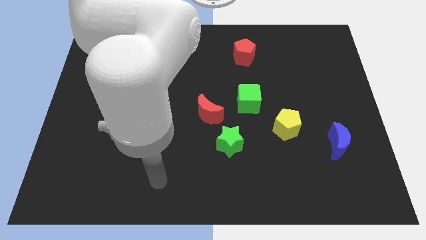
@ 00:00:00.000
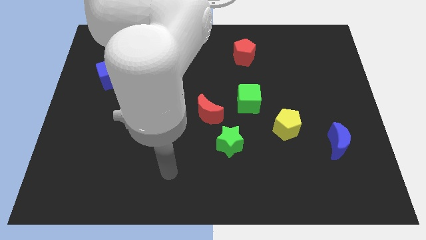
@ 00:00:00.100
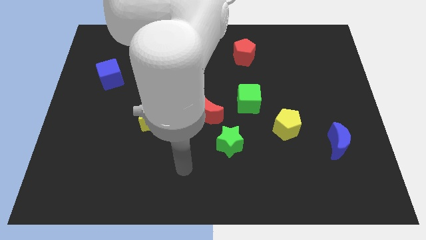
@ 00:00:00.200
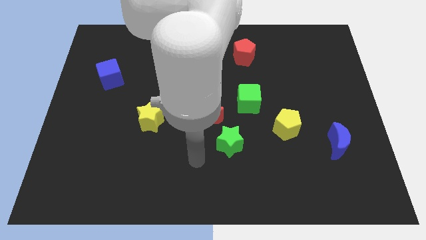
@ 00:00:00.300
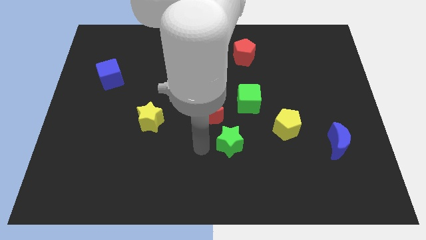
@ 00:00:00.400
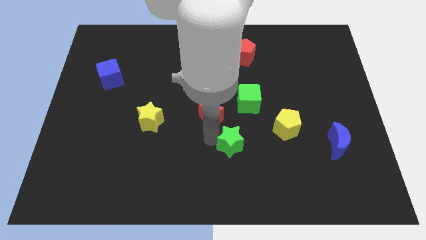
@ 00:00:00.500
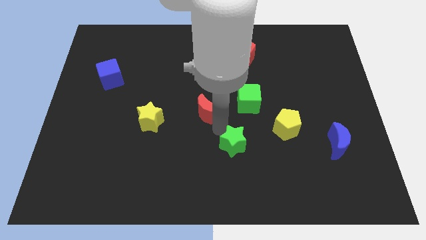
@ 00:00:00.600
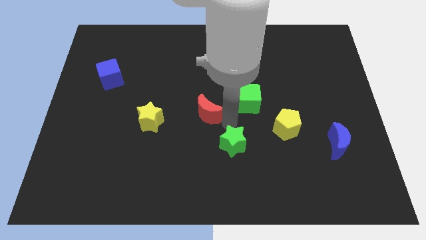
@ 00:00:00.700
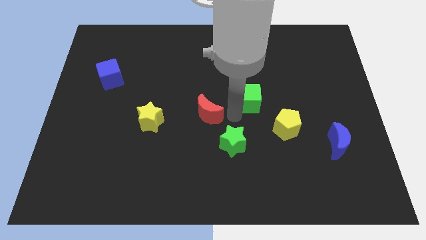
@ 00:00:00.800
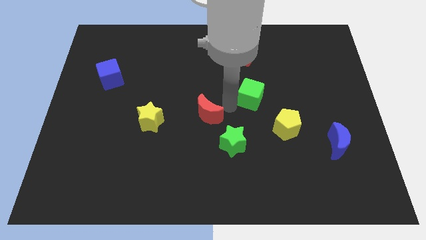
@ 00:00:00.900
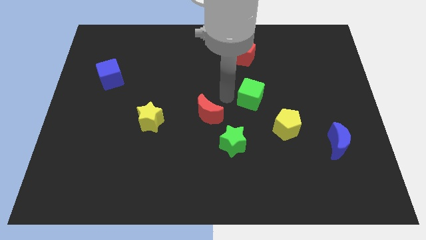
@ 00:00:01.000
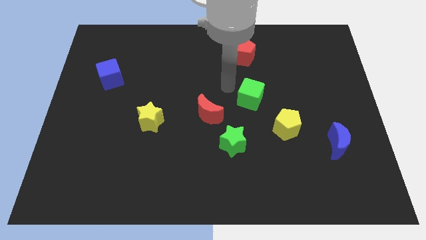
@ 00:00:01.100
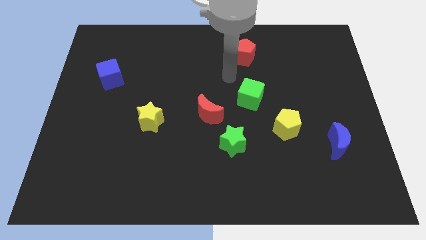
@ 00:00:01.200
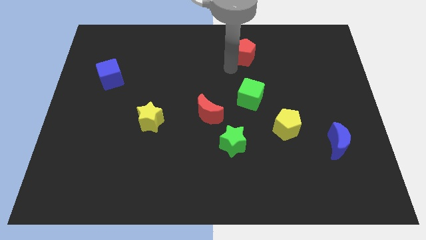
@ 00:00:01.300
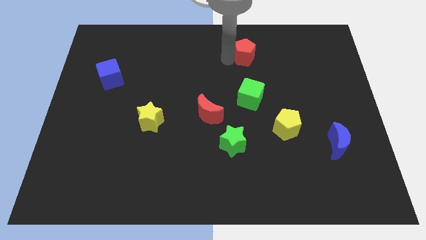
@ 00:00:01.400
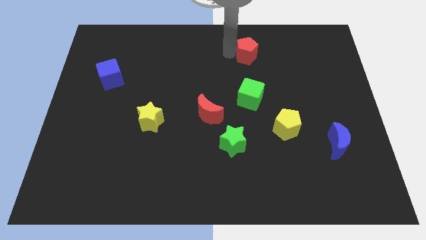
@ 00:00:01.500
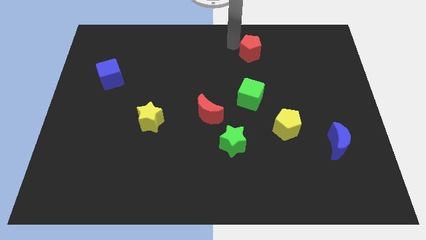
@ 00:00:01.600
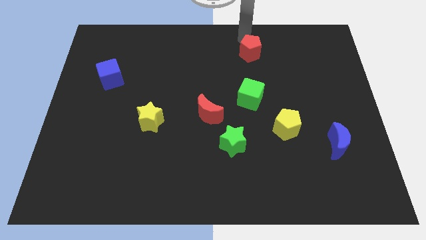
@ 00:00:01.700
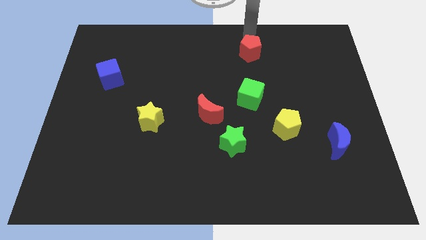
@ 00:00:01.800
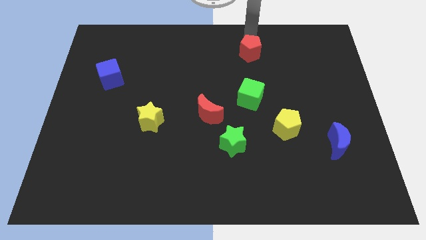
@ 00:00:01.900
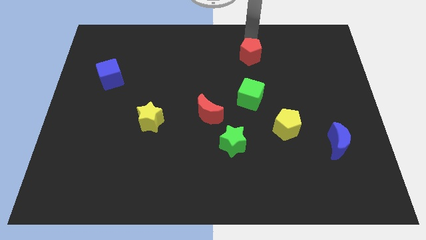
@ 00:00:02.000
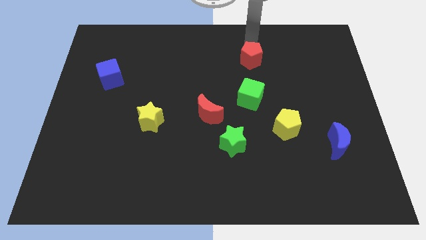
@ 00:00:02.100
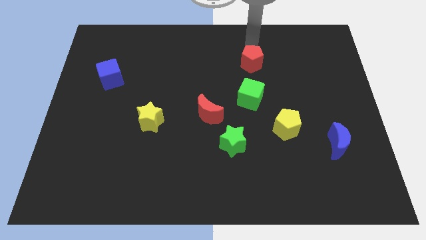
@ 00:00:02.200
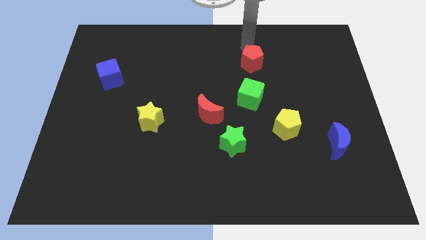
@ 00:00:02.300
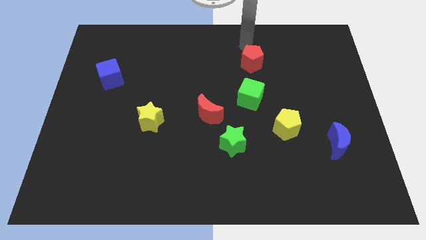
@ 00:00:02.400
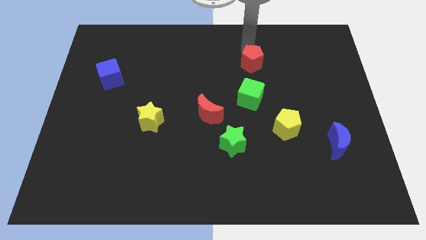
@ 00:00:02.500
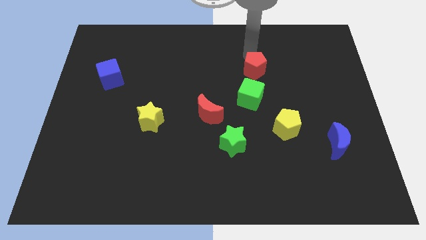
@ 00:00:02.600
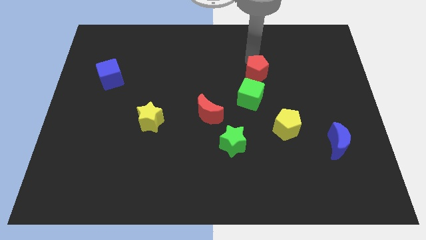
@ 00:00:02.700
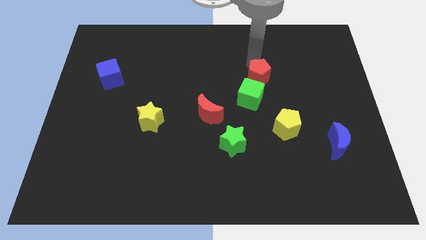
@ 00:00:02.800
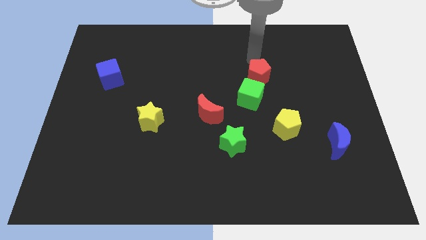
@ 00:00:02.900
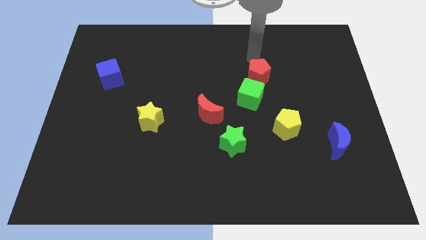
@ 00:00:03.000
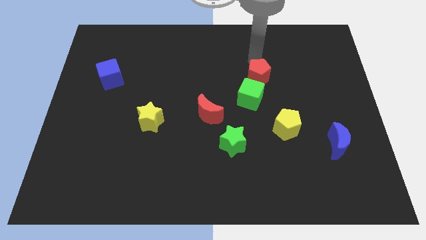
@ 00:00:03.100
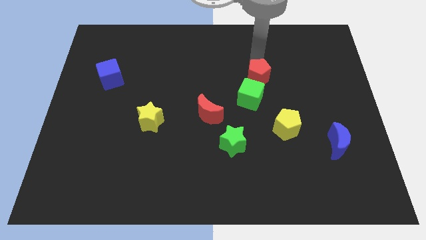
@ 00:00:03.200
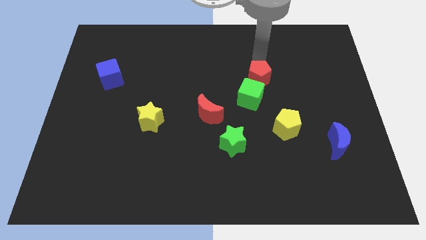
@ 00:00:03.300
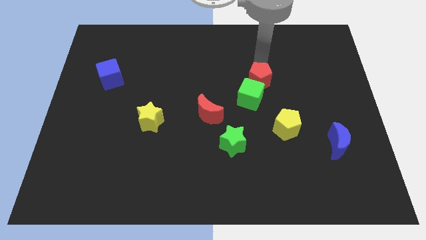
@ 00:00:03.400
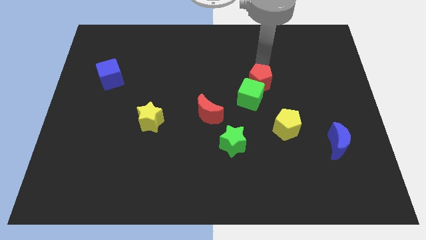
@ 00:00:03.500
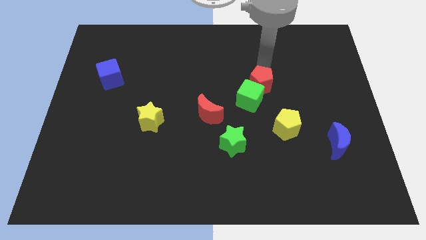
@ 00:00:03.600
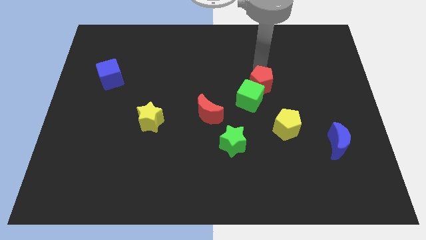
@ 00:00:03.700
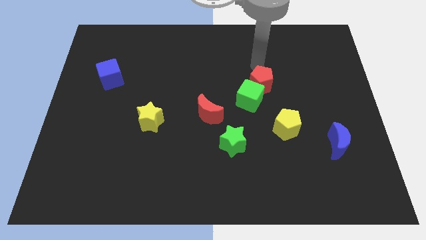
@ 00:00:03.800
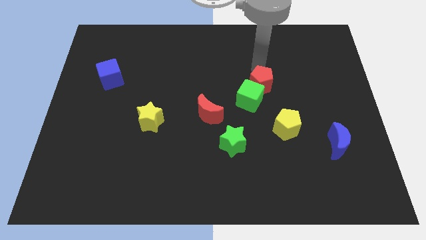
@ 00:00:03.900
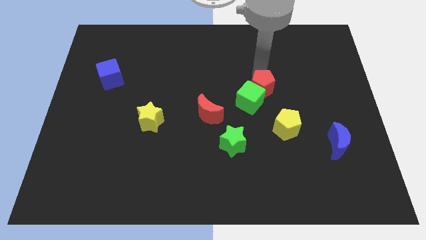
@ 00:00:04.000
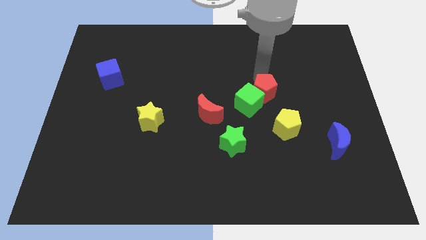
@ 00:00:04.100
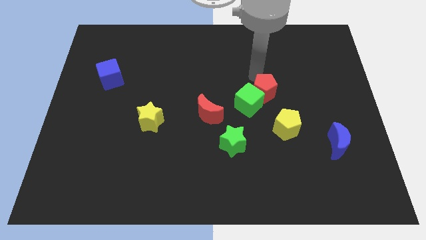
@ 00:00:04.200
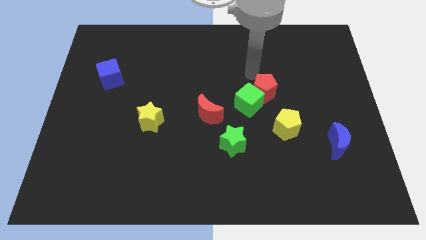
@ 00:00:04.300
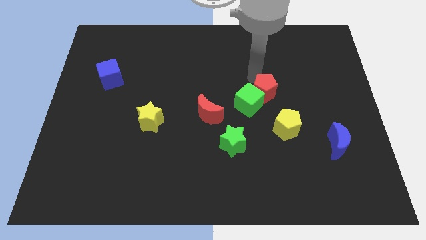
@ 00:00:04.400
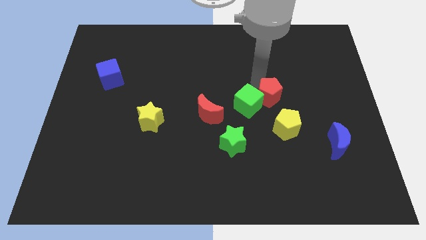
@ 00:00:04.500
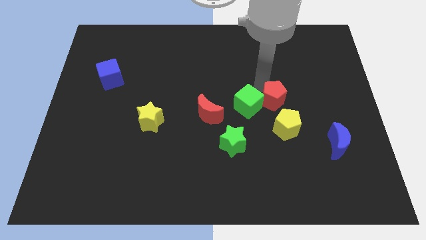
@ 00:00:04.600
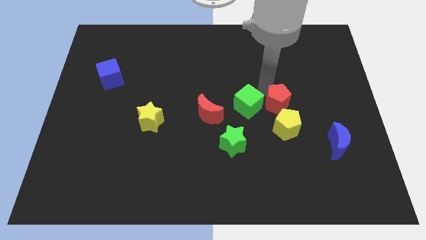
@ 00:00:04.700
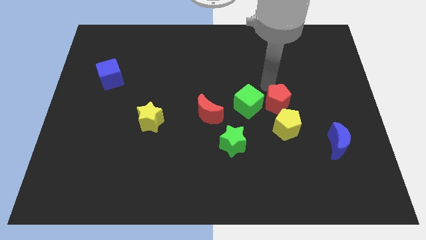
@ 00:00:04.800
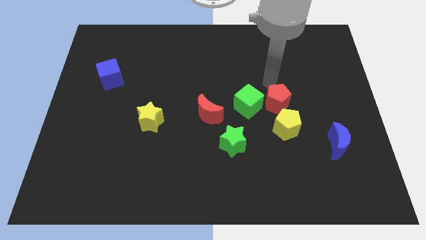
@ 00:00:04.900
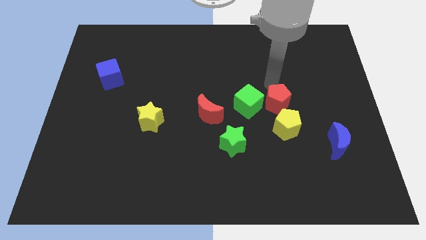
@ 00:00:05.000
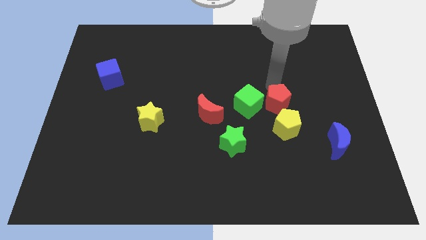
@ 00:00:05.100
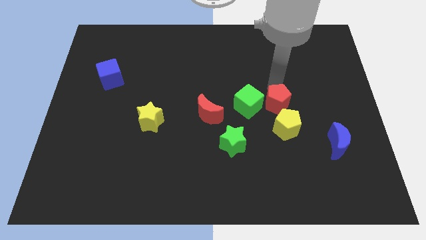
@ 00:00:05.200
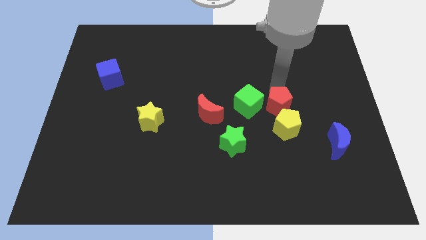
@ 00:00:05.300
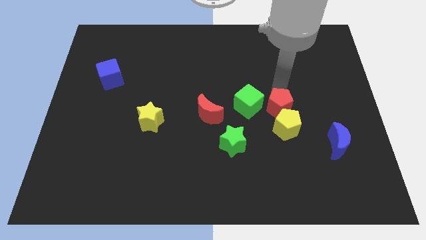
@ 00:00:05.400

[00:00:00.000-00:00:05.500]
move the red pentagon towards the yellow pentagon

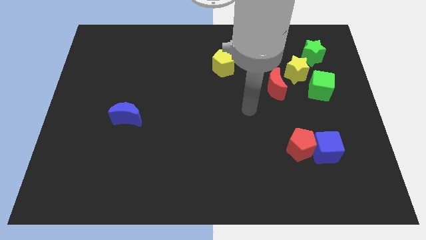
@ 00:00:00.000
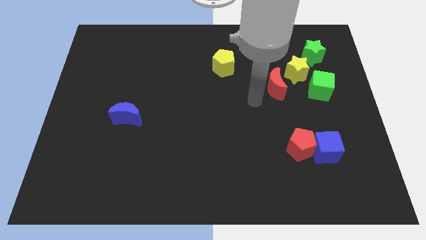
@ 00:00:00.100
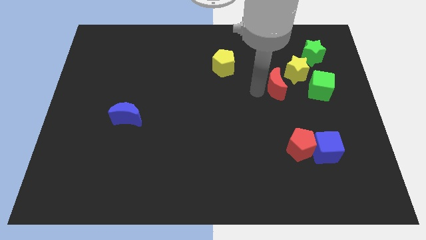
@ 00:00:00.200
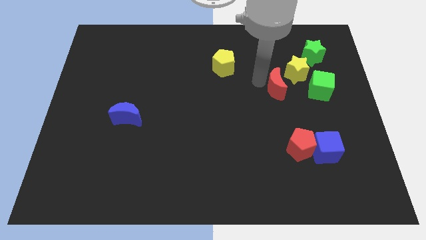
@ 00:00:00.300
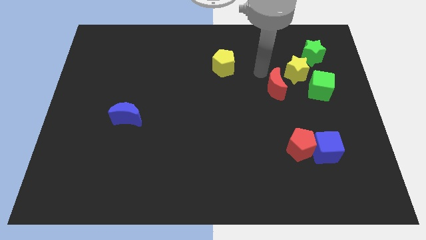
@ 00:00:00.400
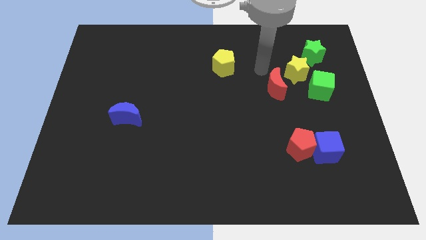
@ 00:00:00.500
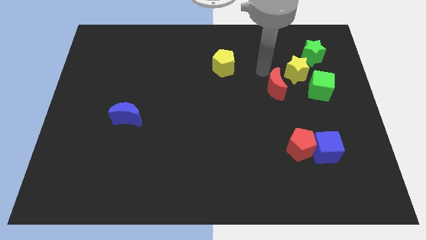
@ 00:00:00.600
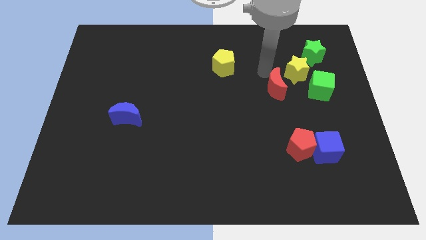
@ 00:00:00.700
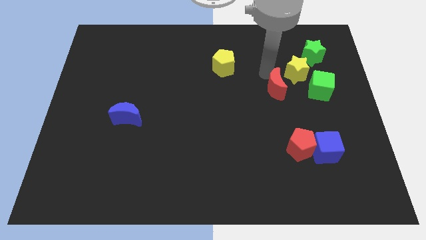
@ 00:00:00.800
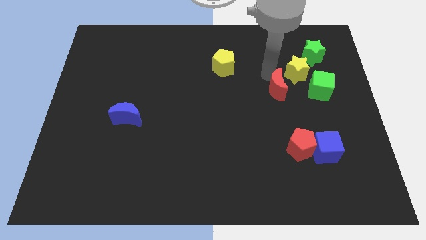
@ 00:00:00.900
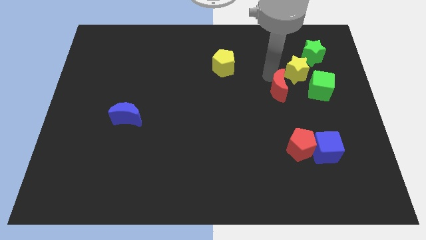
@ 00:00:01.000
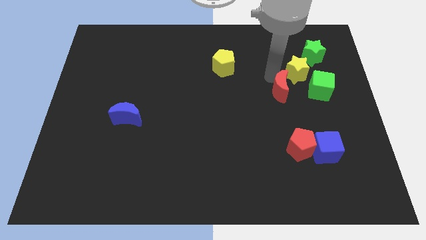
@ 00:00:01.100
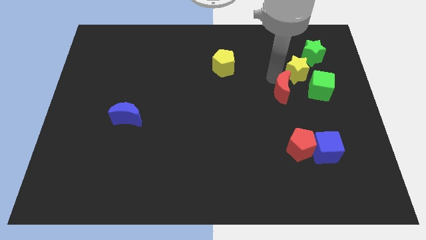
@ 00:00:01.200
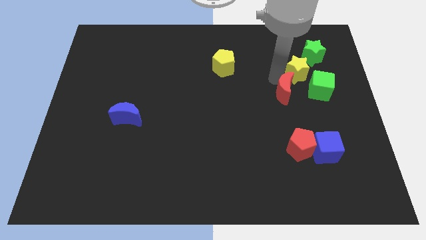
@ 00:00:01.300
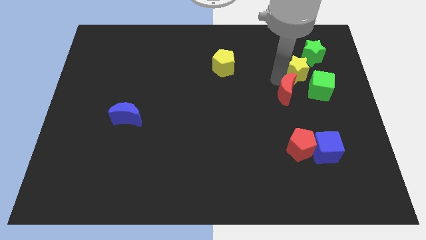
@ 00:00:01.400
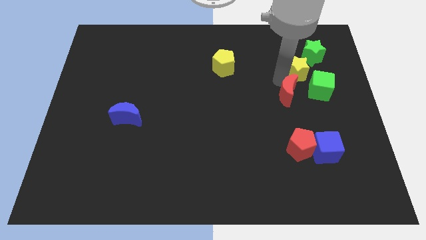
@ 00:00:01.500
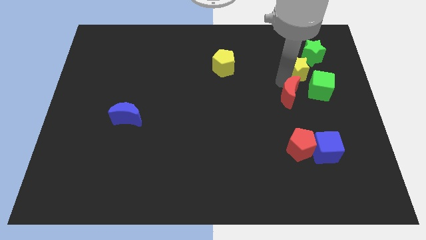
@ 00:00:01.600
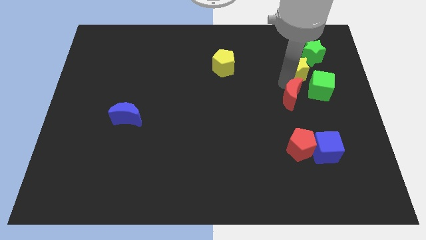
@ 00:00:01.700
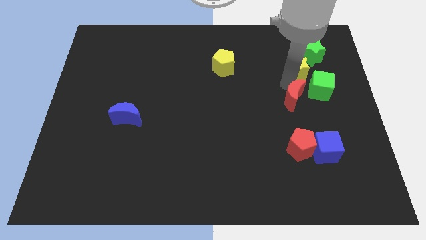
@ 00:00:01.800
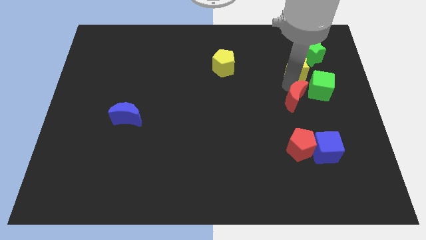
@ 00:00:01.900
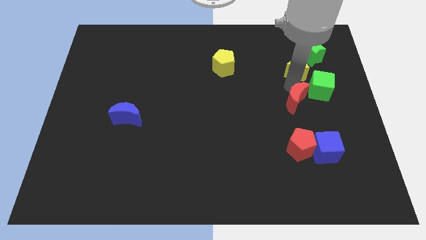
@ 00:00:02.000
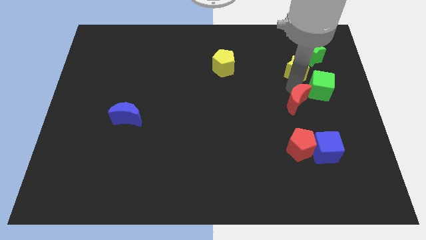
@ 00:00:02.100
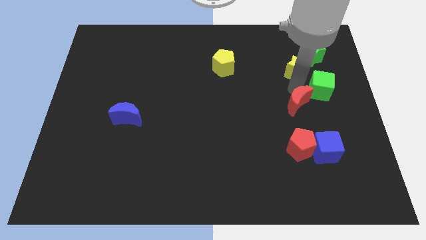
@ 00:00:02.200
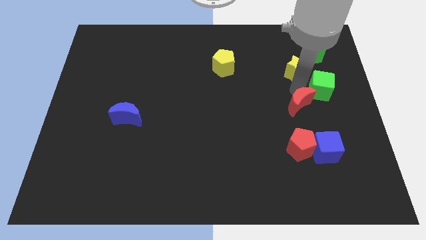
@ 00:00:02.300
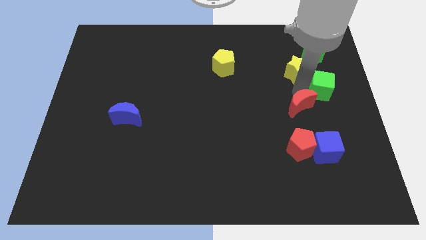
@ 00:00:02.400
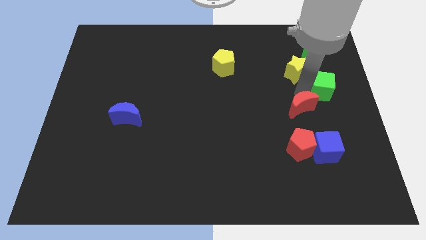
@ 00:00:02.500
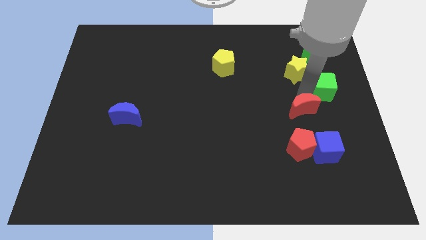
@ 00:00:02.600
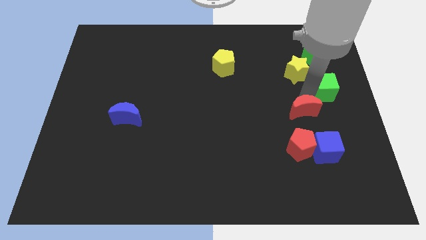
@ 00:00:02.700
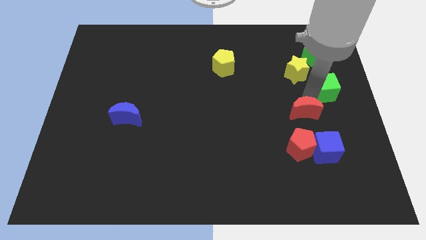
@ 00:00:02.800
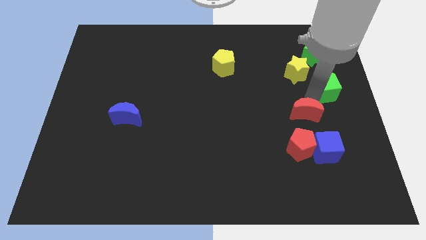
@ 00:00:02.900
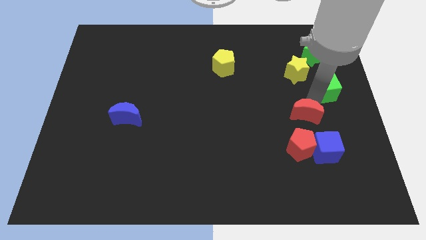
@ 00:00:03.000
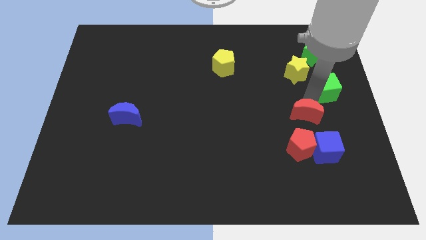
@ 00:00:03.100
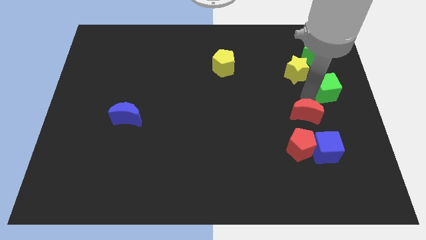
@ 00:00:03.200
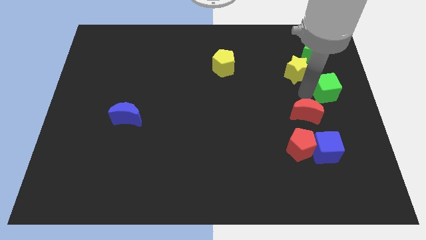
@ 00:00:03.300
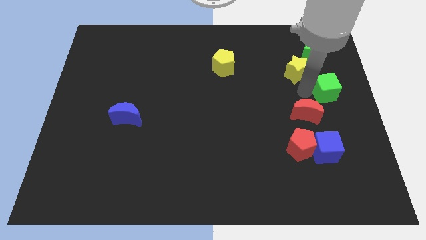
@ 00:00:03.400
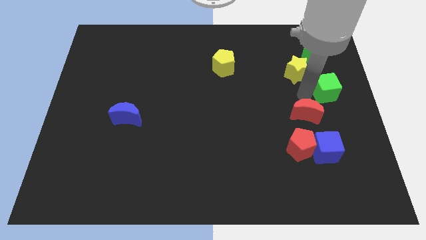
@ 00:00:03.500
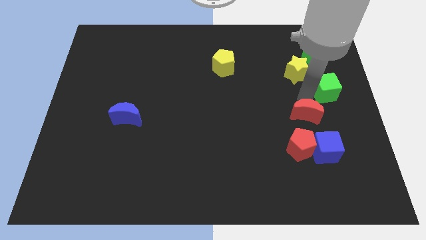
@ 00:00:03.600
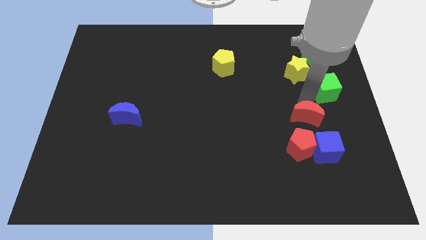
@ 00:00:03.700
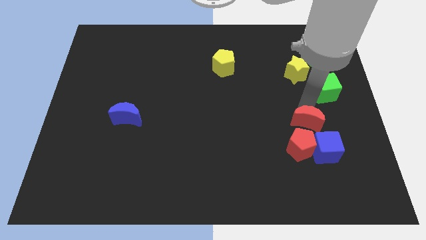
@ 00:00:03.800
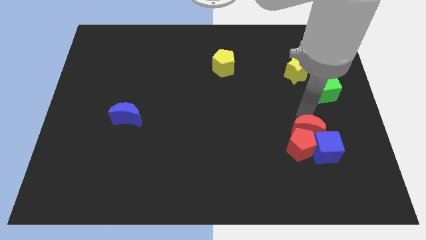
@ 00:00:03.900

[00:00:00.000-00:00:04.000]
move the red moon towards the blue cube
